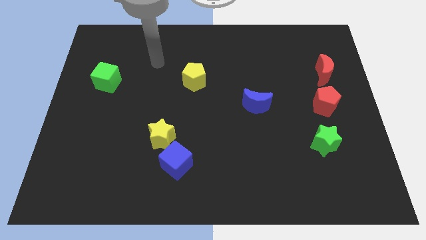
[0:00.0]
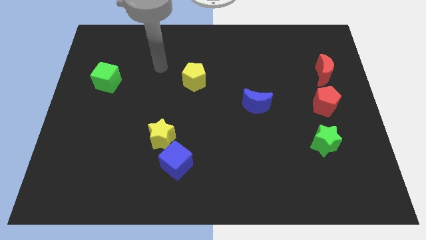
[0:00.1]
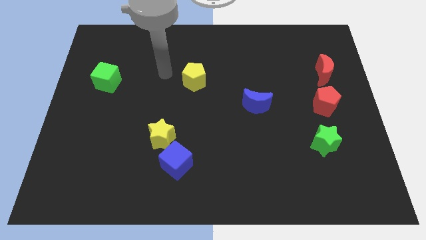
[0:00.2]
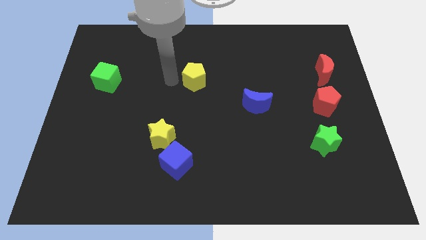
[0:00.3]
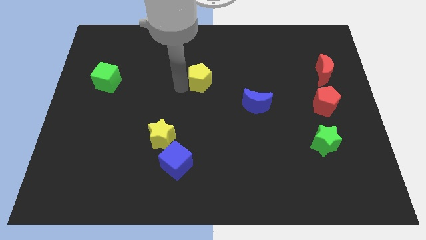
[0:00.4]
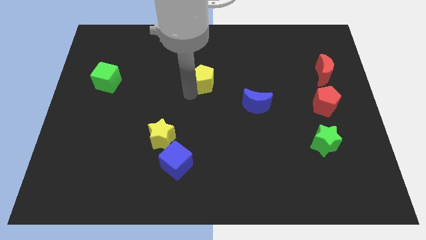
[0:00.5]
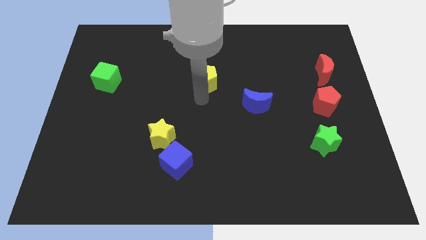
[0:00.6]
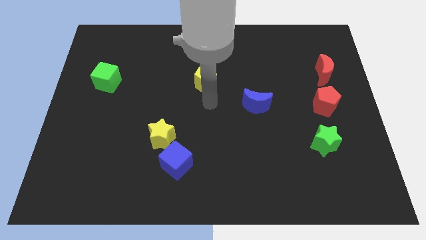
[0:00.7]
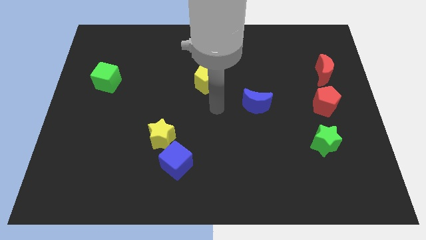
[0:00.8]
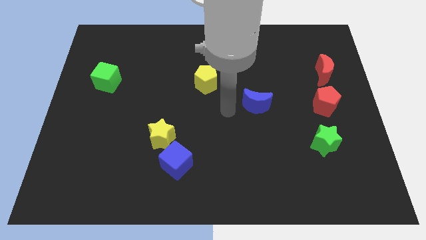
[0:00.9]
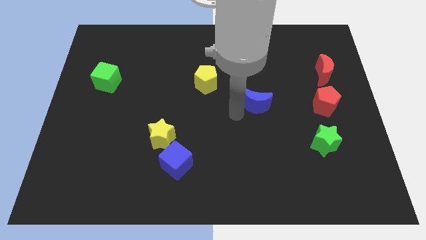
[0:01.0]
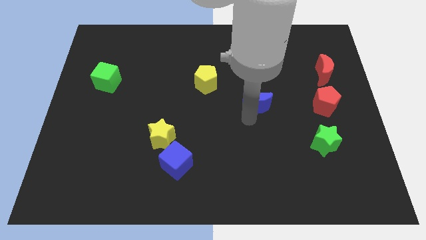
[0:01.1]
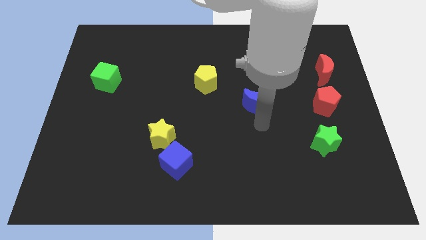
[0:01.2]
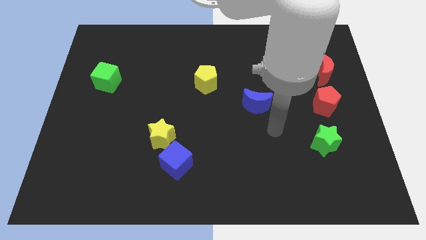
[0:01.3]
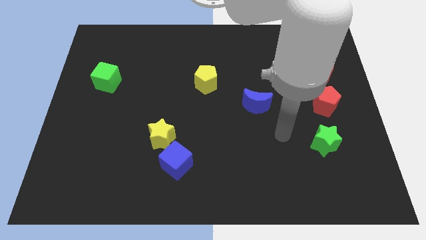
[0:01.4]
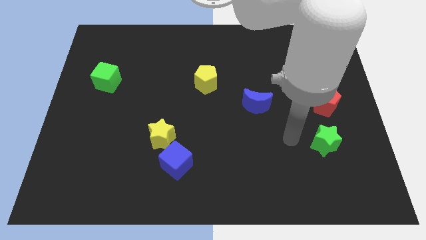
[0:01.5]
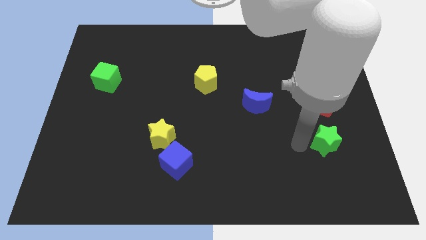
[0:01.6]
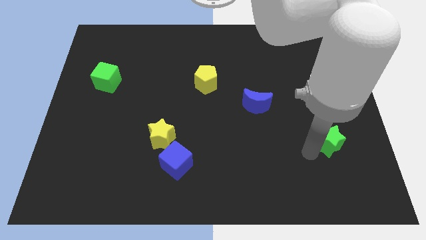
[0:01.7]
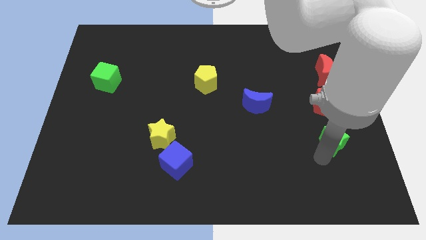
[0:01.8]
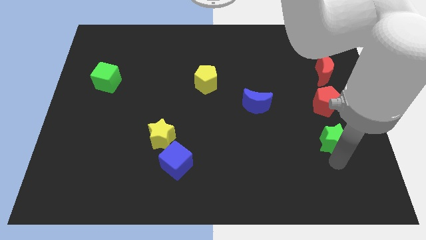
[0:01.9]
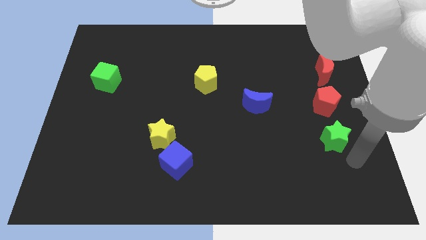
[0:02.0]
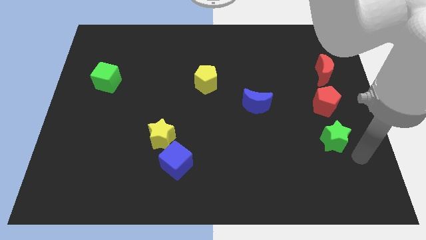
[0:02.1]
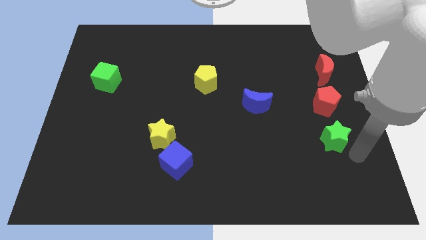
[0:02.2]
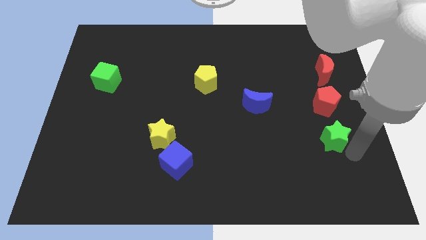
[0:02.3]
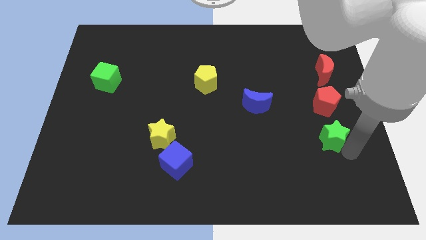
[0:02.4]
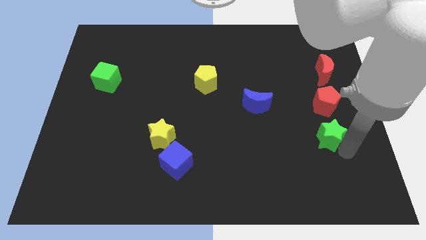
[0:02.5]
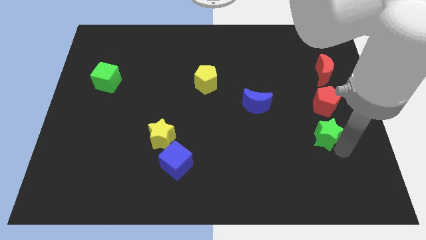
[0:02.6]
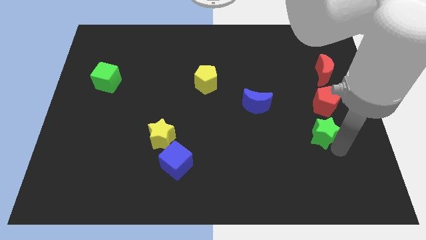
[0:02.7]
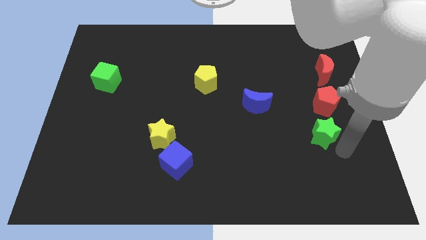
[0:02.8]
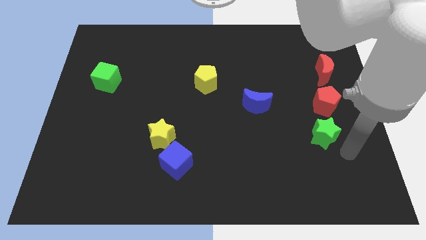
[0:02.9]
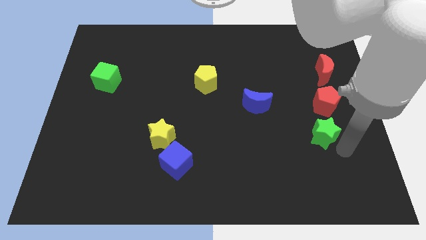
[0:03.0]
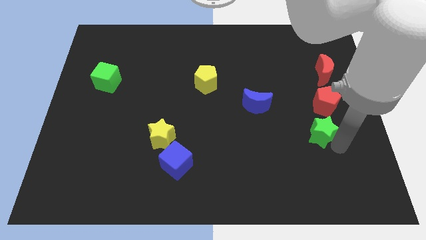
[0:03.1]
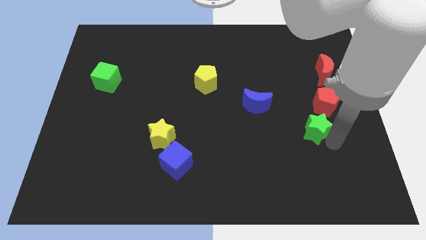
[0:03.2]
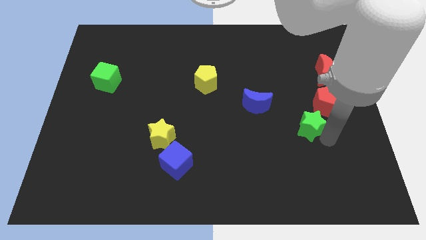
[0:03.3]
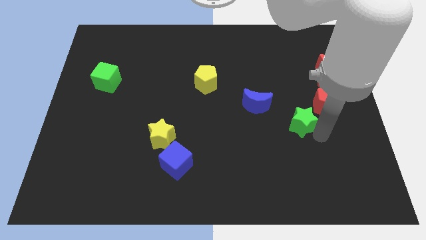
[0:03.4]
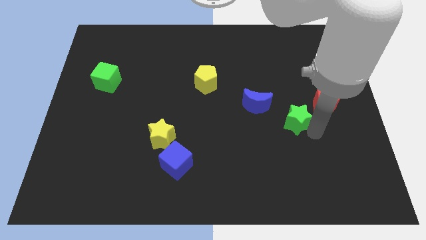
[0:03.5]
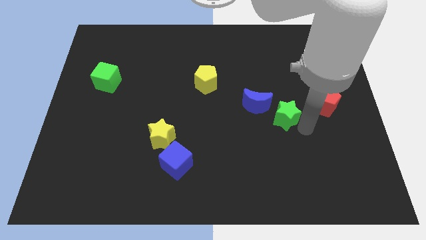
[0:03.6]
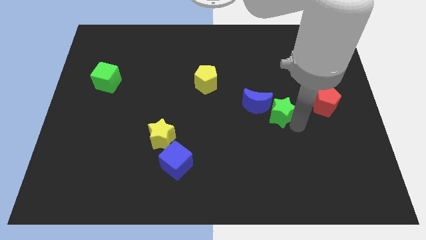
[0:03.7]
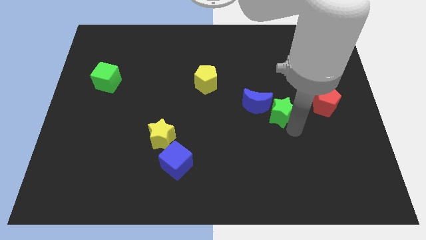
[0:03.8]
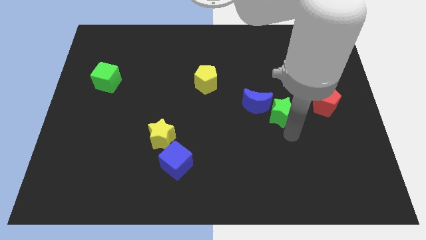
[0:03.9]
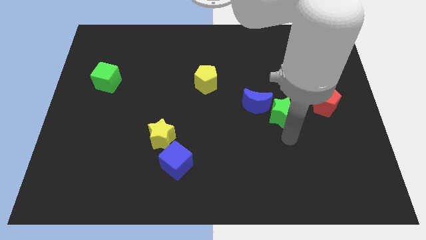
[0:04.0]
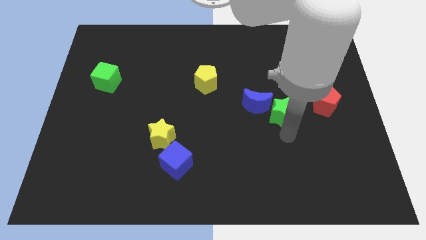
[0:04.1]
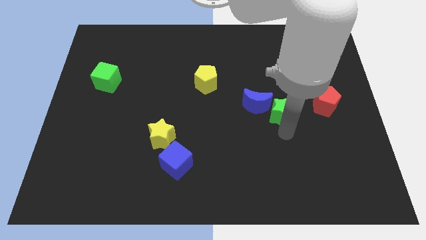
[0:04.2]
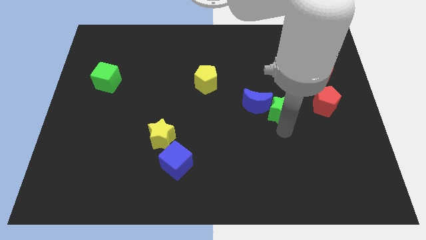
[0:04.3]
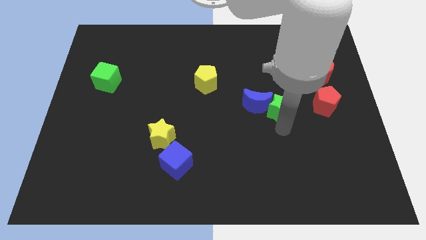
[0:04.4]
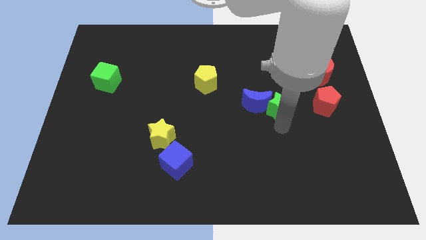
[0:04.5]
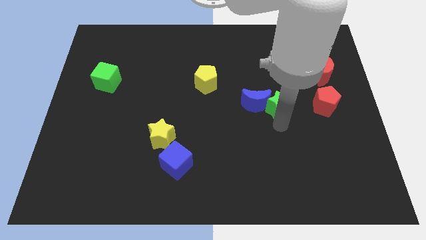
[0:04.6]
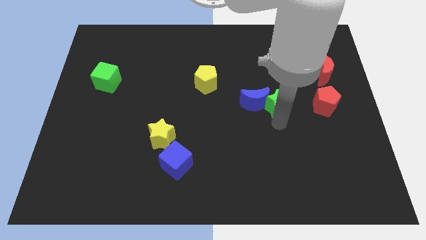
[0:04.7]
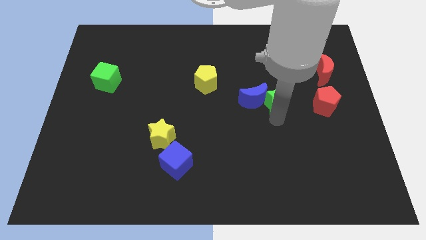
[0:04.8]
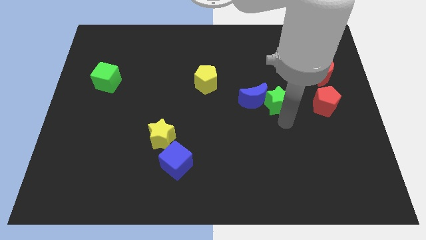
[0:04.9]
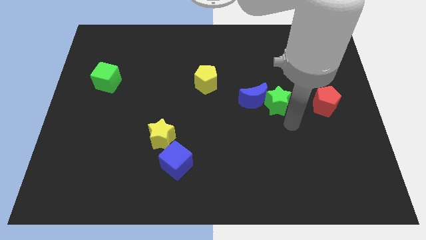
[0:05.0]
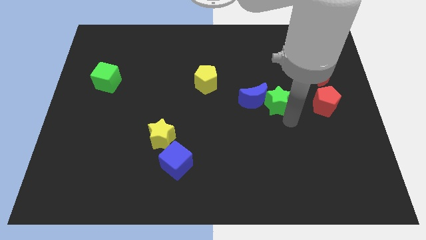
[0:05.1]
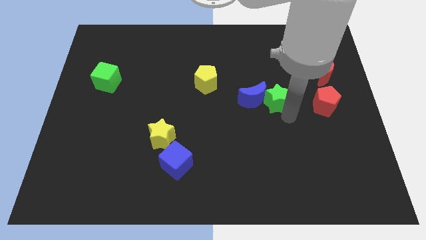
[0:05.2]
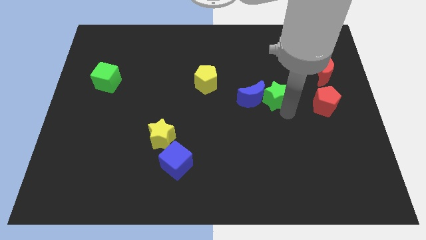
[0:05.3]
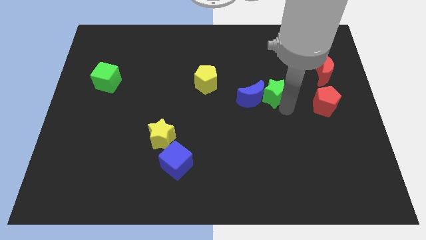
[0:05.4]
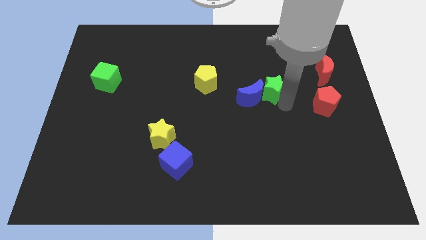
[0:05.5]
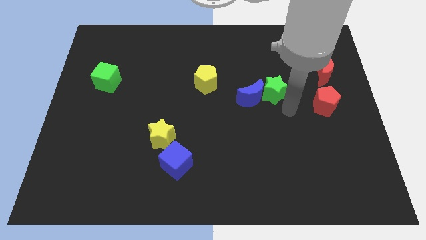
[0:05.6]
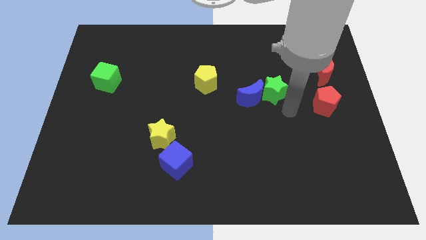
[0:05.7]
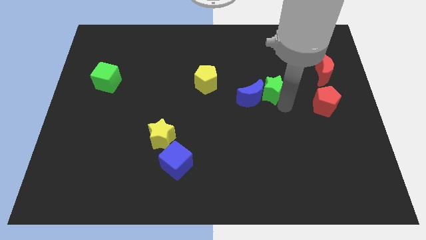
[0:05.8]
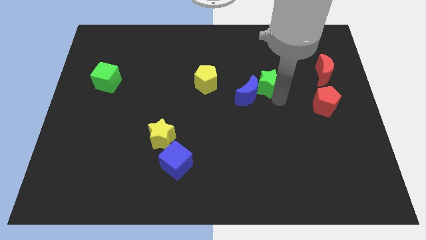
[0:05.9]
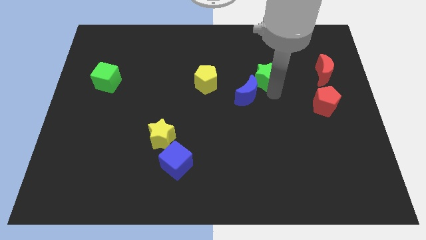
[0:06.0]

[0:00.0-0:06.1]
push the green star to the top side of the blue moon

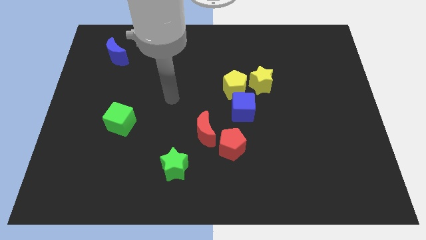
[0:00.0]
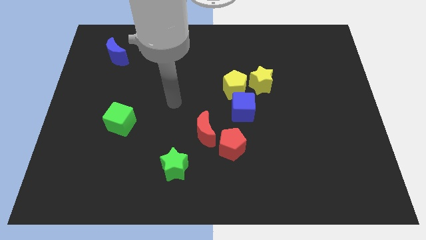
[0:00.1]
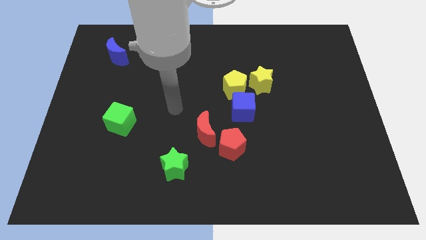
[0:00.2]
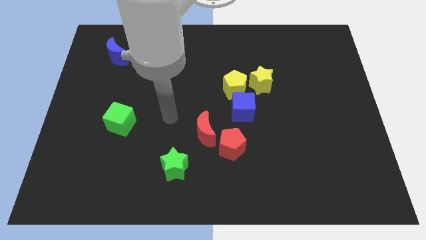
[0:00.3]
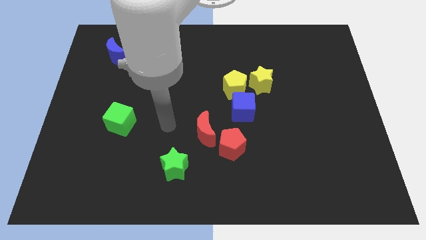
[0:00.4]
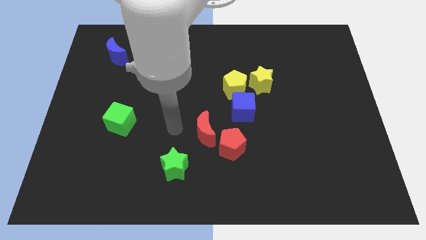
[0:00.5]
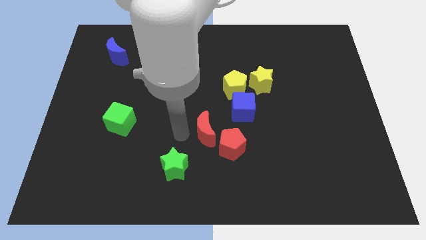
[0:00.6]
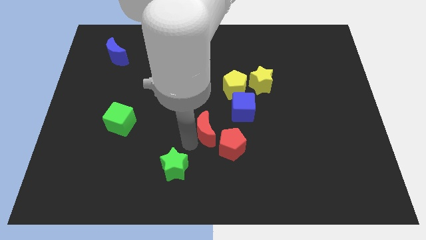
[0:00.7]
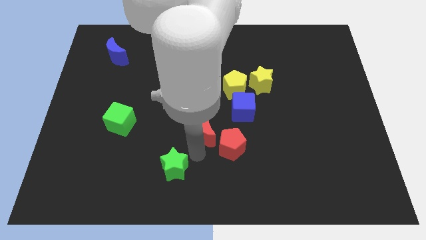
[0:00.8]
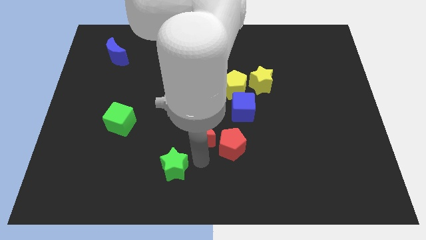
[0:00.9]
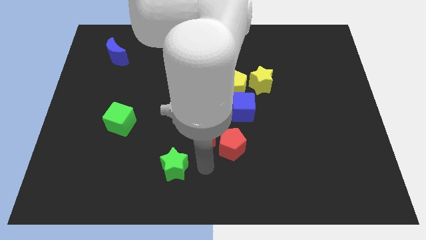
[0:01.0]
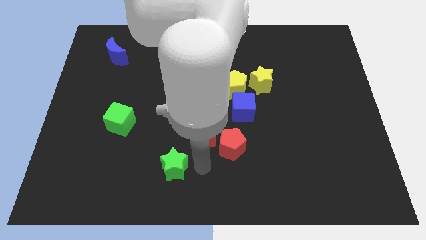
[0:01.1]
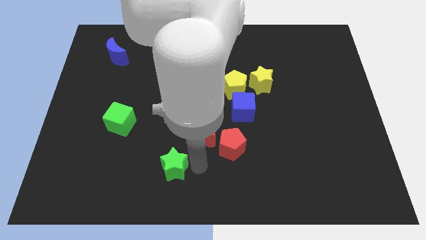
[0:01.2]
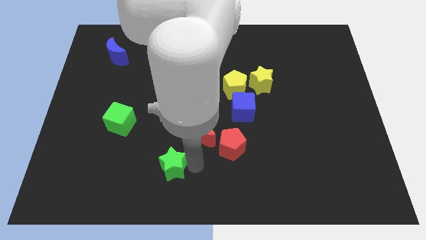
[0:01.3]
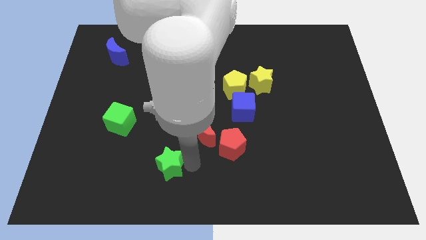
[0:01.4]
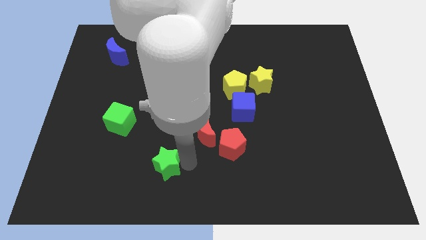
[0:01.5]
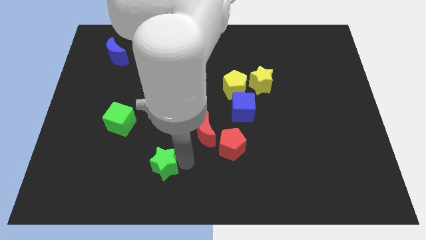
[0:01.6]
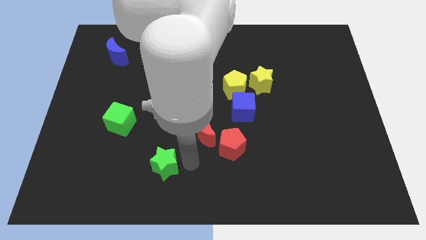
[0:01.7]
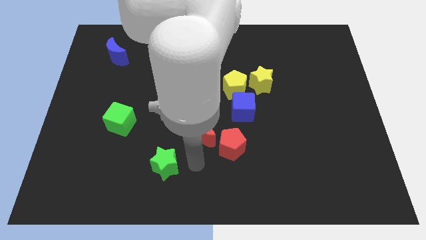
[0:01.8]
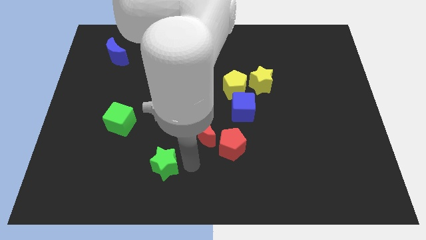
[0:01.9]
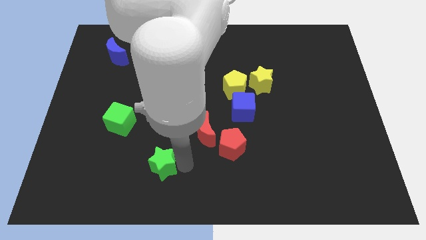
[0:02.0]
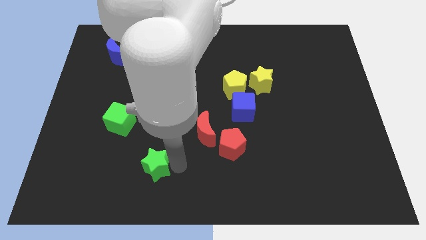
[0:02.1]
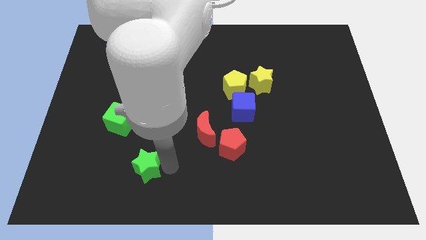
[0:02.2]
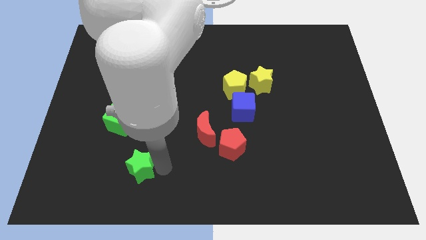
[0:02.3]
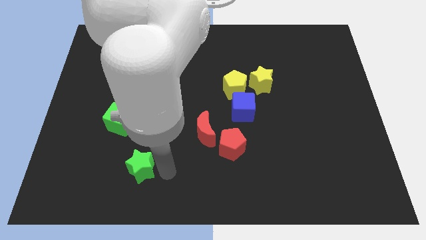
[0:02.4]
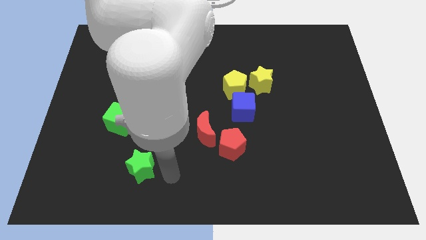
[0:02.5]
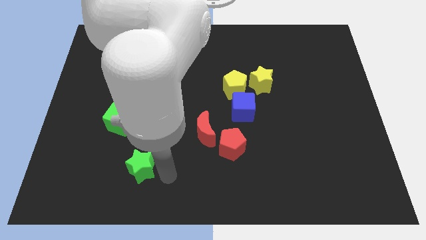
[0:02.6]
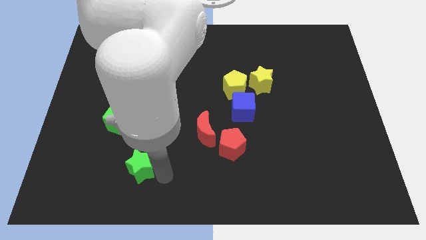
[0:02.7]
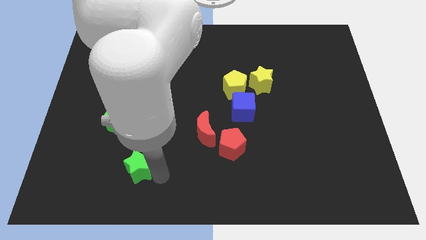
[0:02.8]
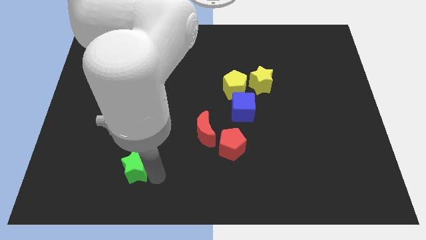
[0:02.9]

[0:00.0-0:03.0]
put the green star to the bottom of the green cube
